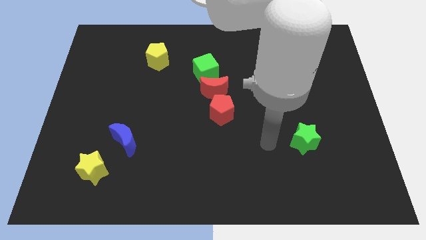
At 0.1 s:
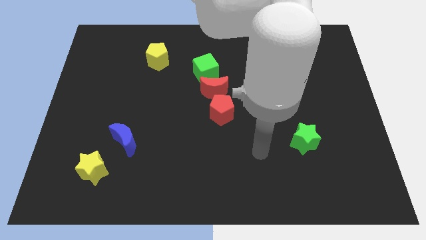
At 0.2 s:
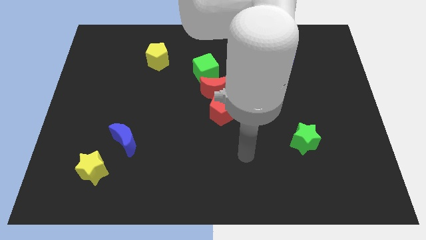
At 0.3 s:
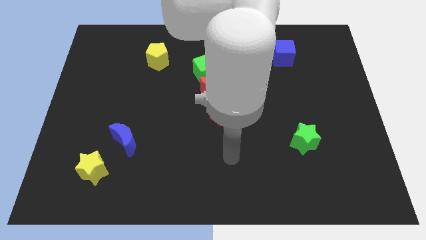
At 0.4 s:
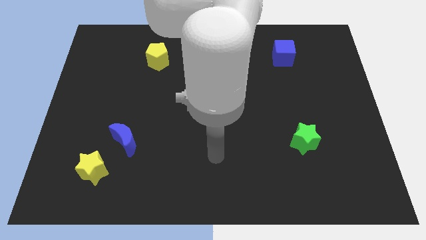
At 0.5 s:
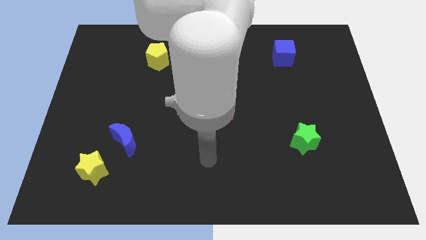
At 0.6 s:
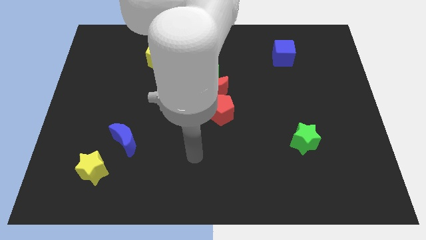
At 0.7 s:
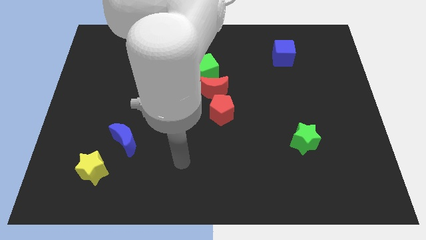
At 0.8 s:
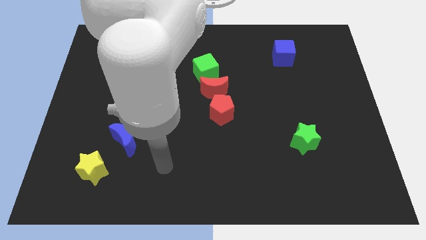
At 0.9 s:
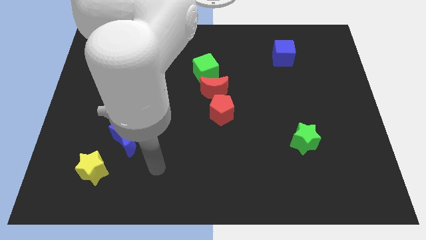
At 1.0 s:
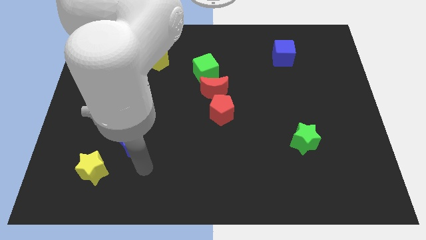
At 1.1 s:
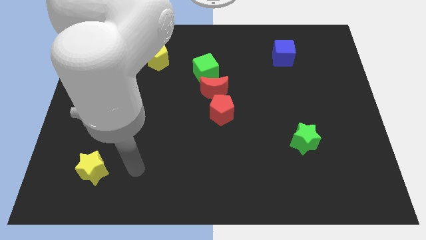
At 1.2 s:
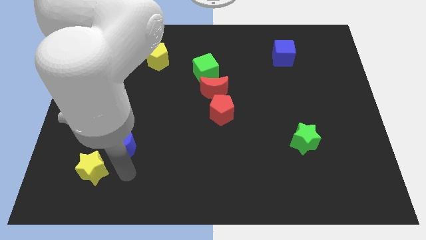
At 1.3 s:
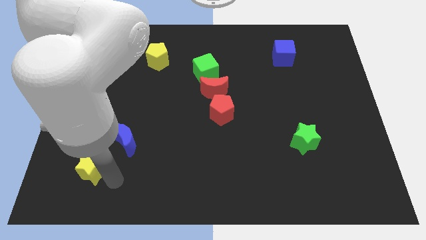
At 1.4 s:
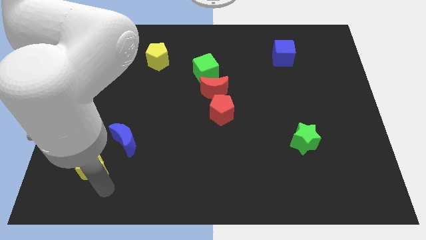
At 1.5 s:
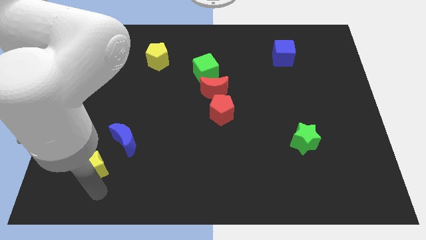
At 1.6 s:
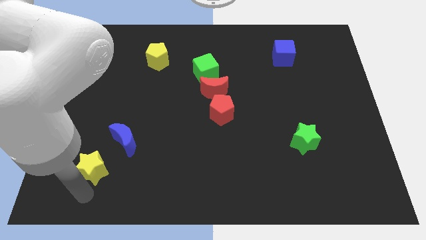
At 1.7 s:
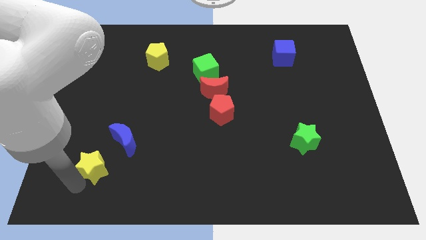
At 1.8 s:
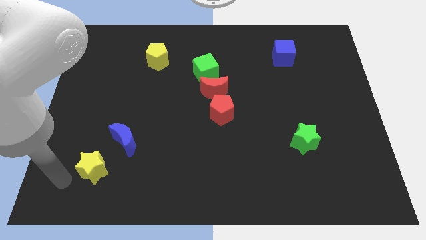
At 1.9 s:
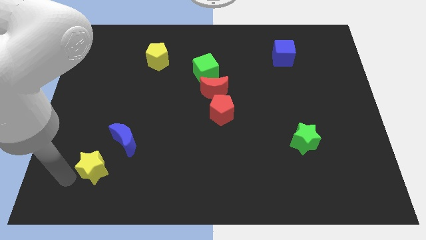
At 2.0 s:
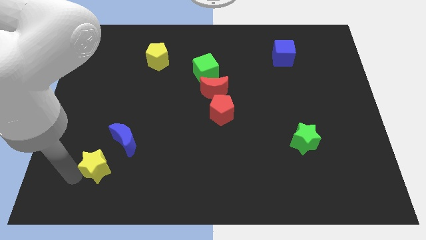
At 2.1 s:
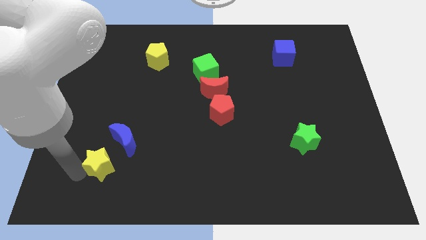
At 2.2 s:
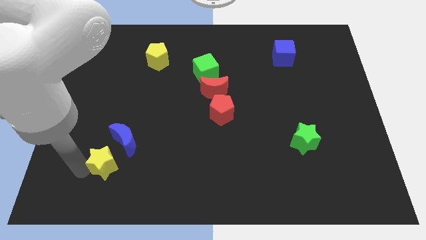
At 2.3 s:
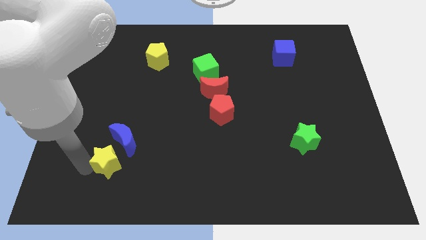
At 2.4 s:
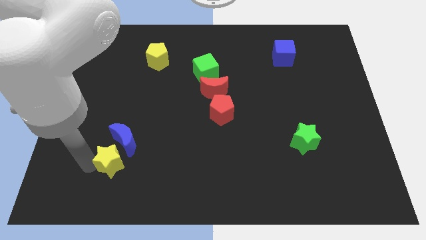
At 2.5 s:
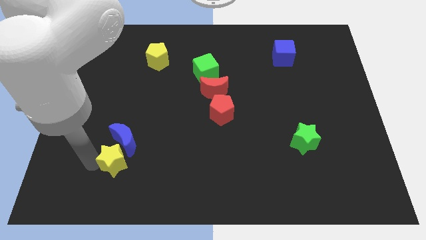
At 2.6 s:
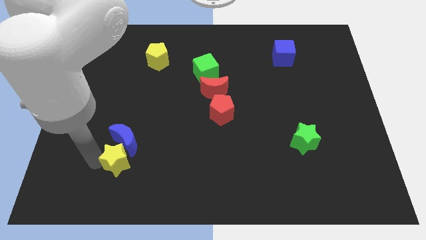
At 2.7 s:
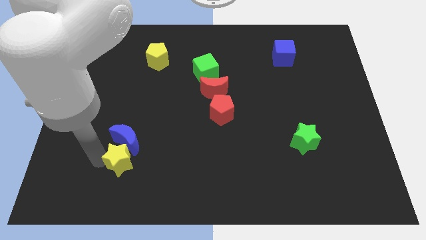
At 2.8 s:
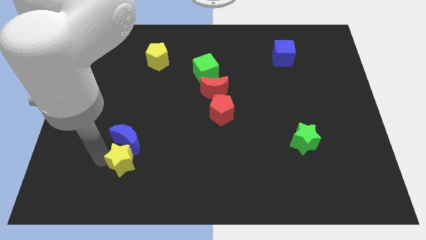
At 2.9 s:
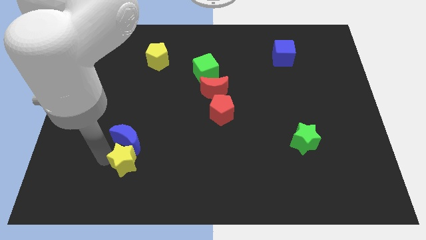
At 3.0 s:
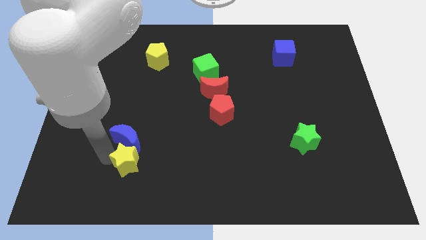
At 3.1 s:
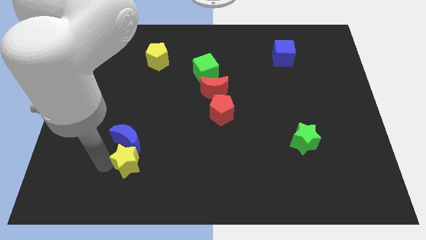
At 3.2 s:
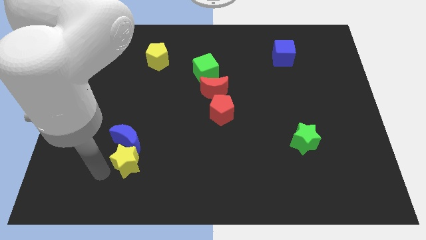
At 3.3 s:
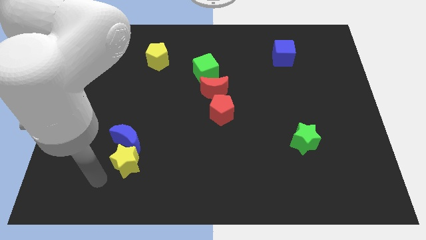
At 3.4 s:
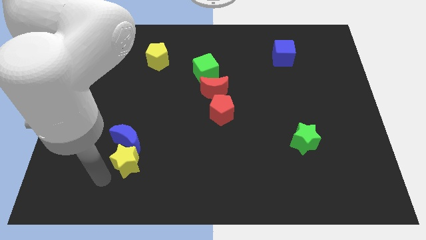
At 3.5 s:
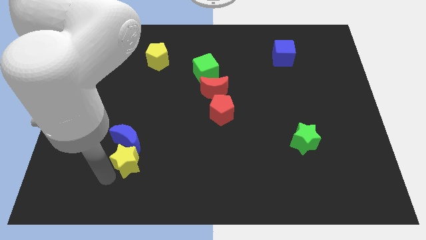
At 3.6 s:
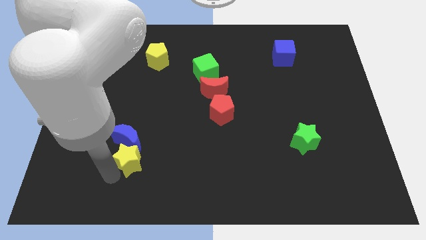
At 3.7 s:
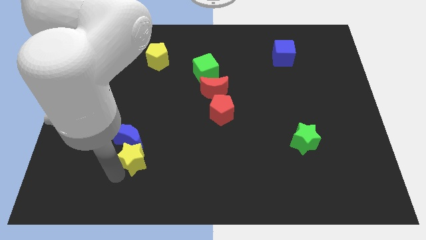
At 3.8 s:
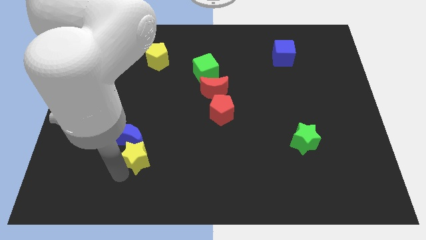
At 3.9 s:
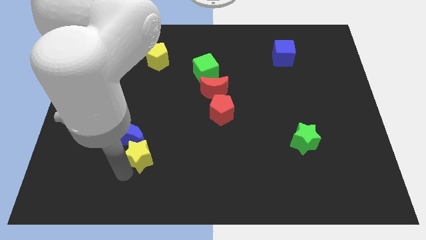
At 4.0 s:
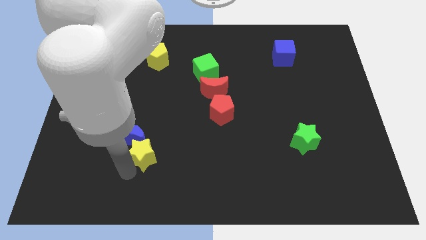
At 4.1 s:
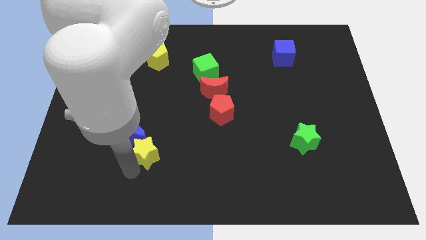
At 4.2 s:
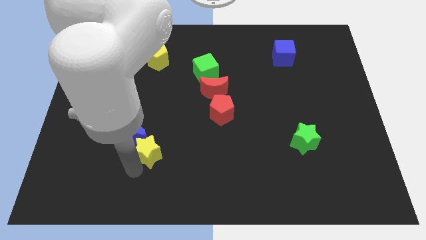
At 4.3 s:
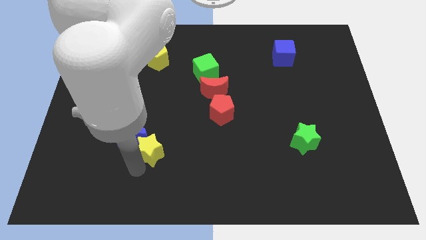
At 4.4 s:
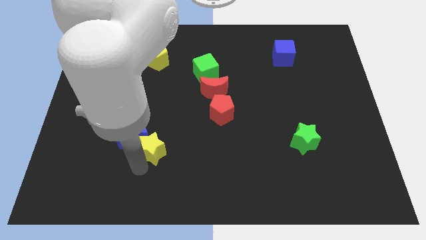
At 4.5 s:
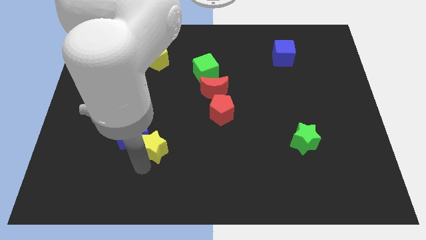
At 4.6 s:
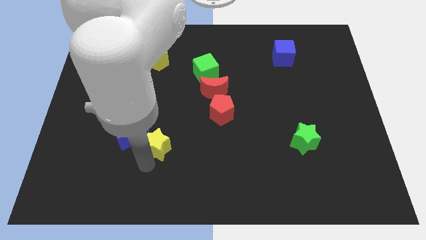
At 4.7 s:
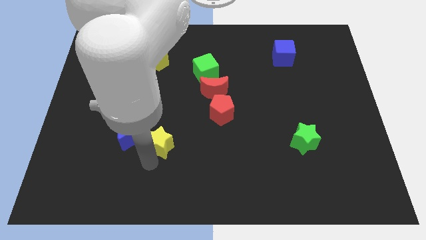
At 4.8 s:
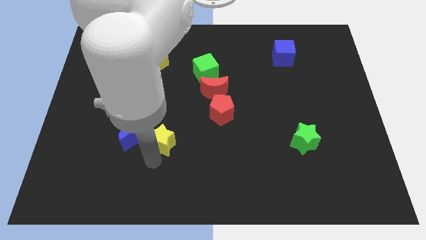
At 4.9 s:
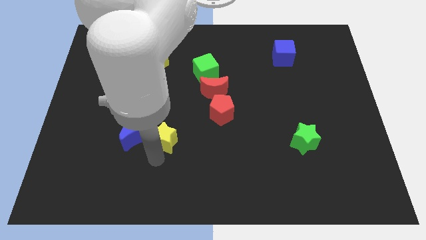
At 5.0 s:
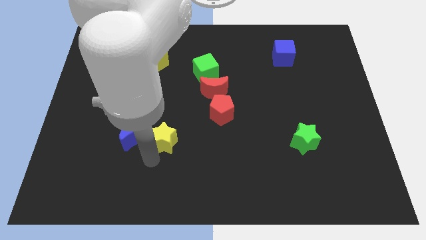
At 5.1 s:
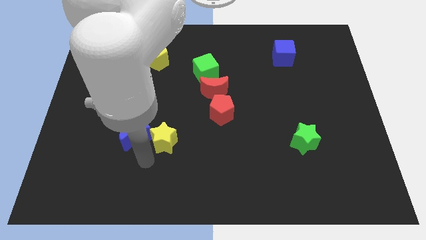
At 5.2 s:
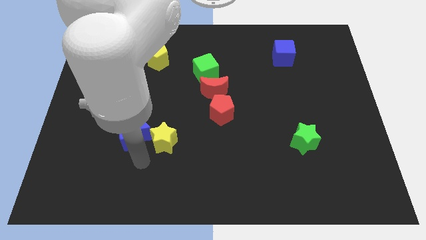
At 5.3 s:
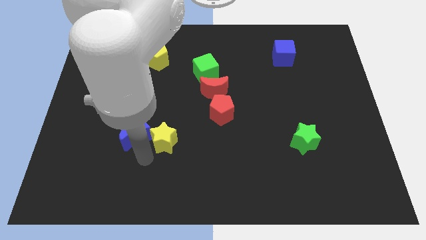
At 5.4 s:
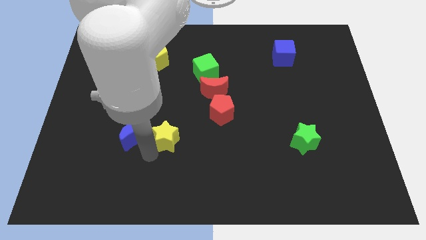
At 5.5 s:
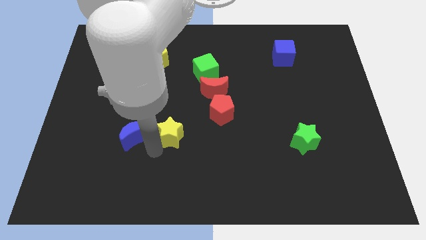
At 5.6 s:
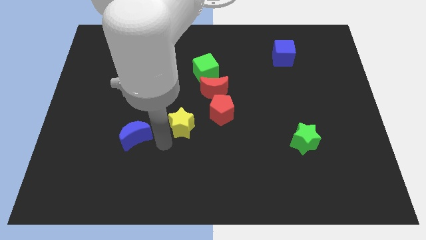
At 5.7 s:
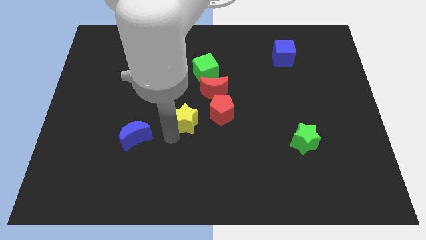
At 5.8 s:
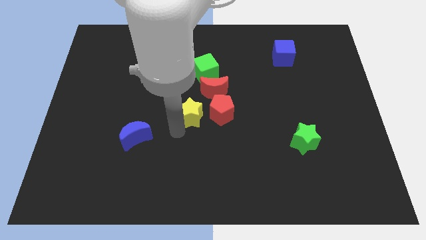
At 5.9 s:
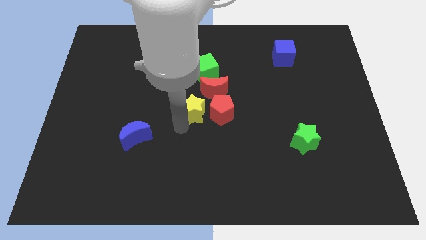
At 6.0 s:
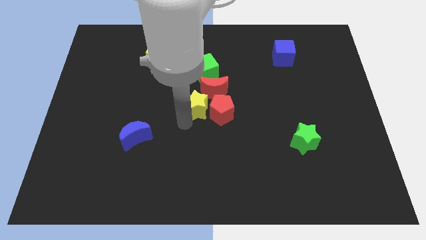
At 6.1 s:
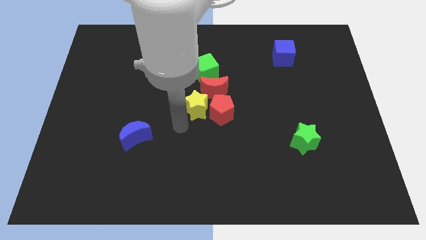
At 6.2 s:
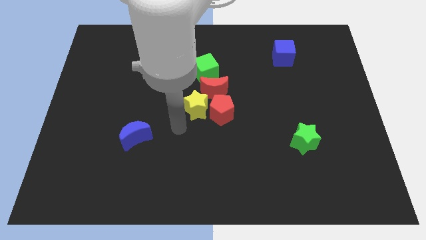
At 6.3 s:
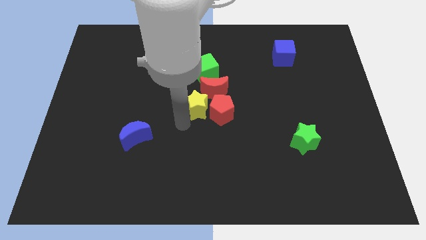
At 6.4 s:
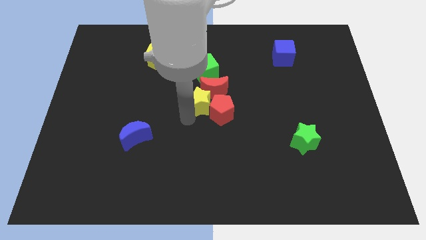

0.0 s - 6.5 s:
push the yellow star towards the red moon

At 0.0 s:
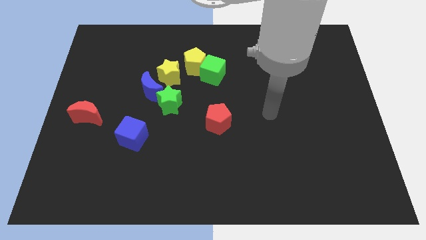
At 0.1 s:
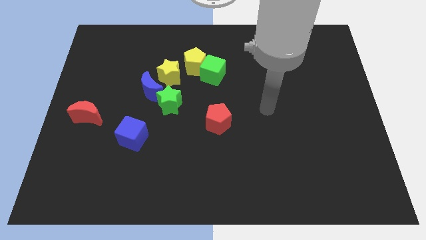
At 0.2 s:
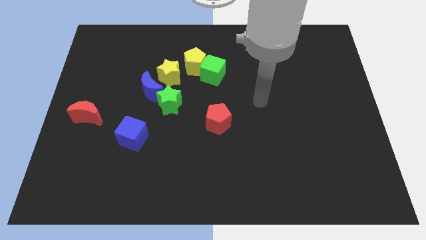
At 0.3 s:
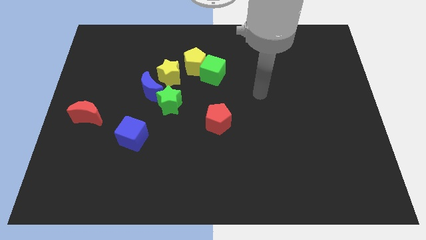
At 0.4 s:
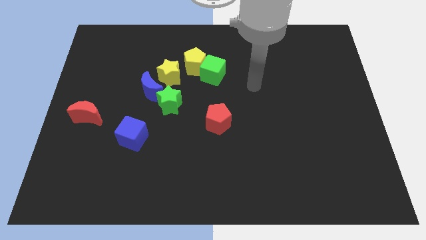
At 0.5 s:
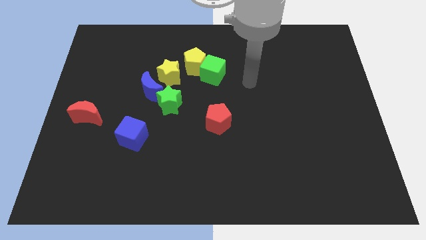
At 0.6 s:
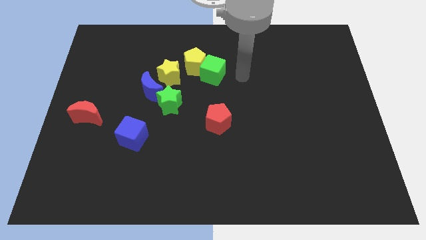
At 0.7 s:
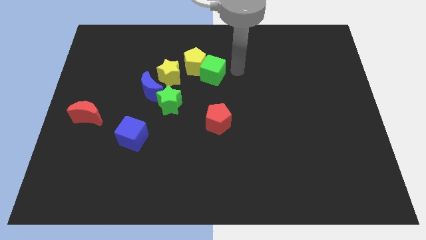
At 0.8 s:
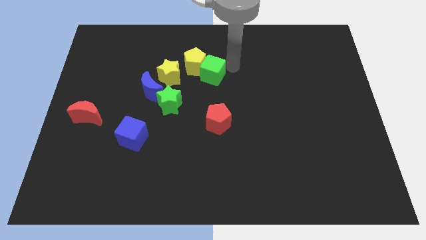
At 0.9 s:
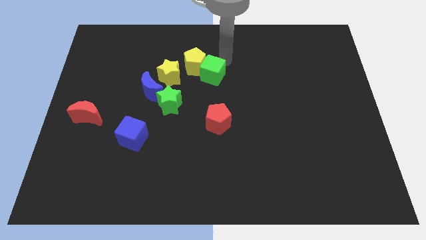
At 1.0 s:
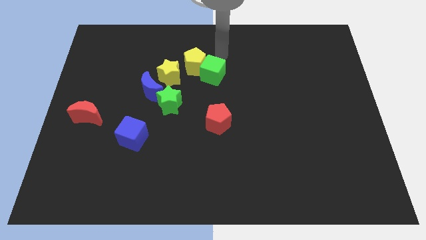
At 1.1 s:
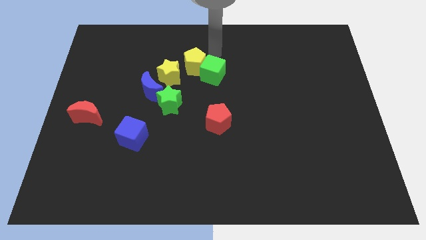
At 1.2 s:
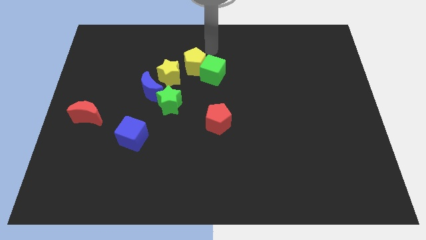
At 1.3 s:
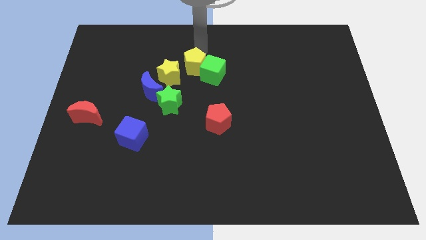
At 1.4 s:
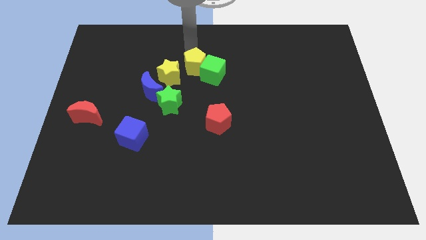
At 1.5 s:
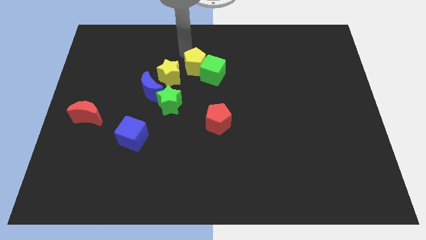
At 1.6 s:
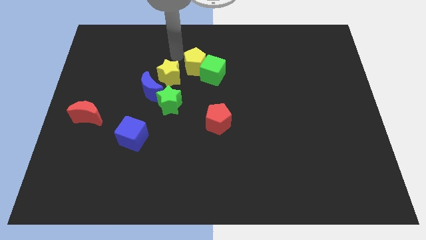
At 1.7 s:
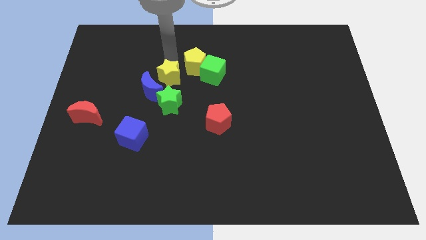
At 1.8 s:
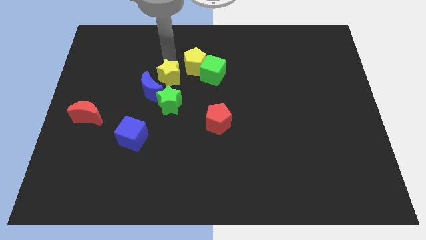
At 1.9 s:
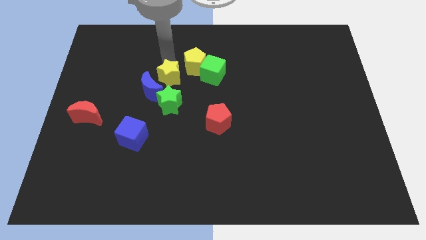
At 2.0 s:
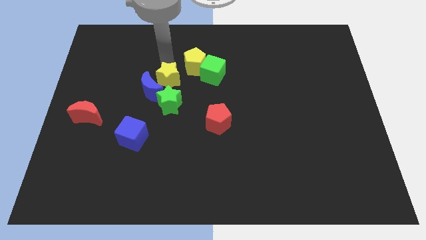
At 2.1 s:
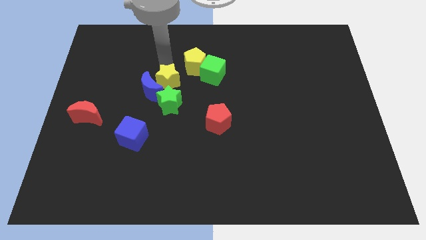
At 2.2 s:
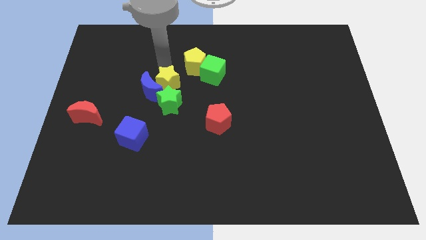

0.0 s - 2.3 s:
move the yellow star towards the green star
